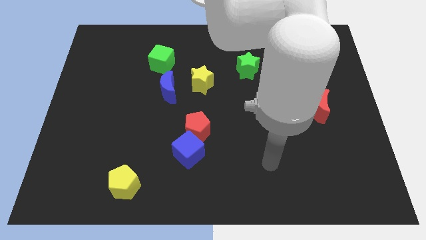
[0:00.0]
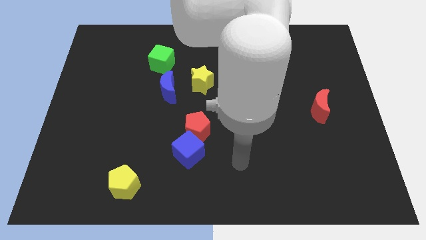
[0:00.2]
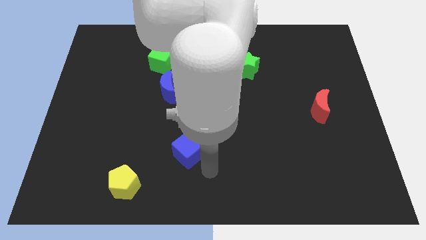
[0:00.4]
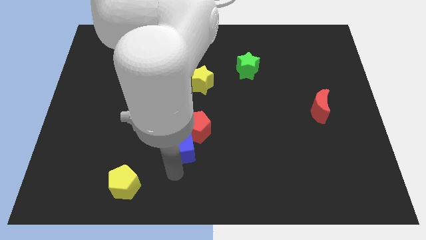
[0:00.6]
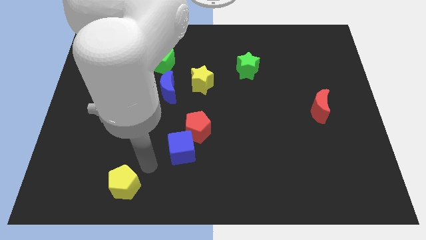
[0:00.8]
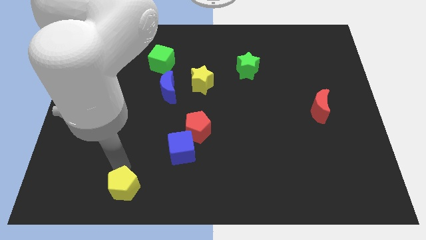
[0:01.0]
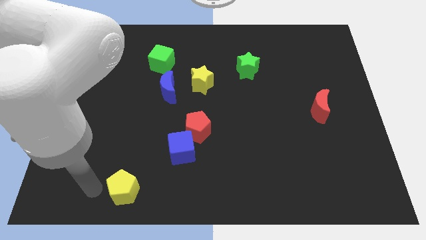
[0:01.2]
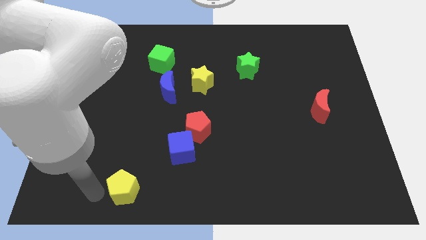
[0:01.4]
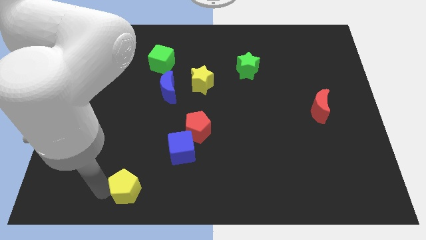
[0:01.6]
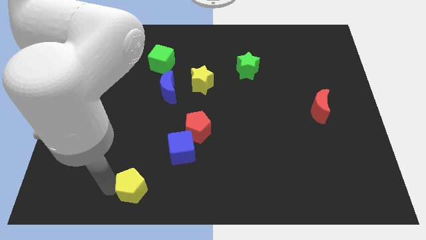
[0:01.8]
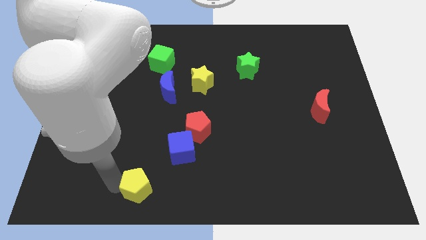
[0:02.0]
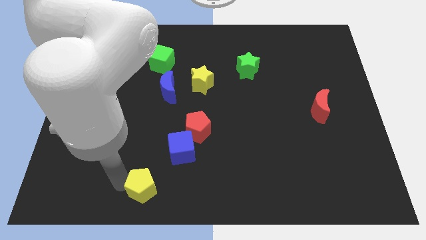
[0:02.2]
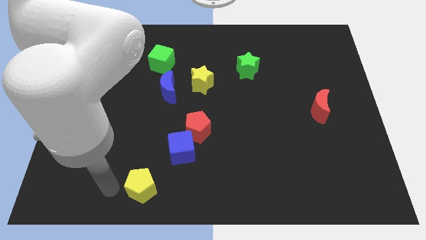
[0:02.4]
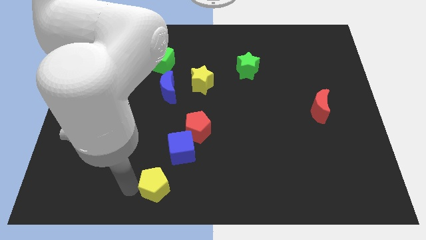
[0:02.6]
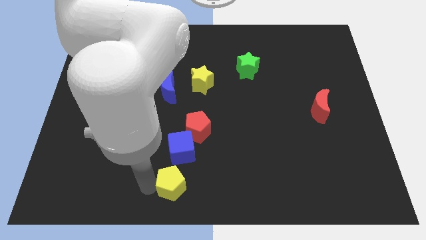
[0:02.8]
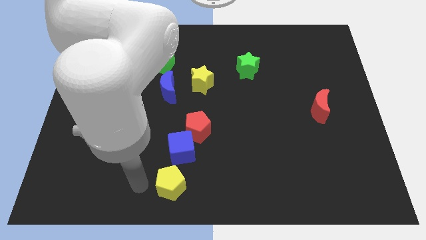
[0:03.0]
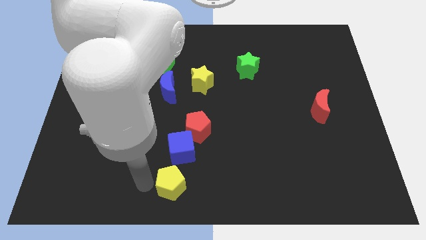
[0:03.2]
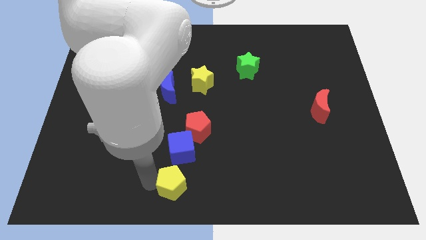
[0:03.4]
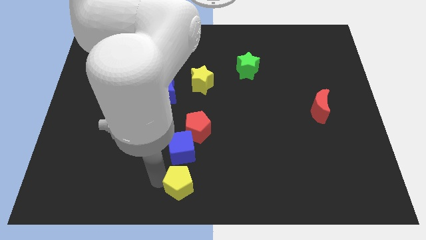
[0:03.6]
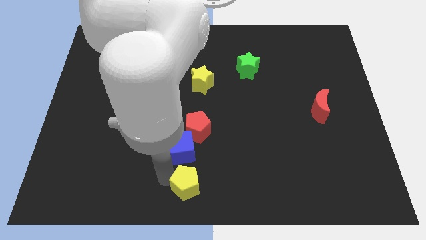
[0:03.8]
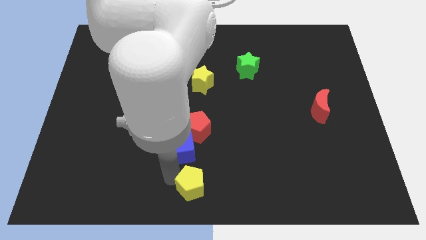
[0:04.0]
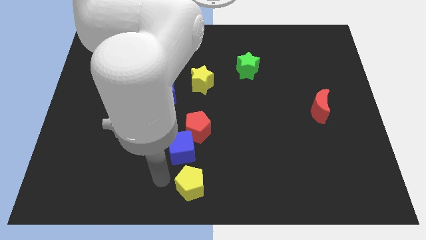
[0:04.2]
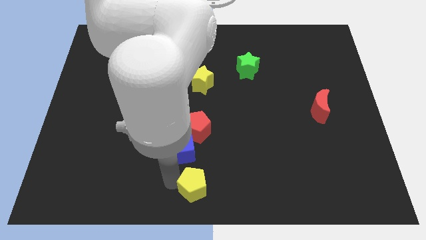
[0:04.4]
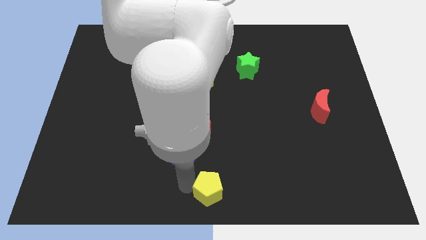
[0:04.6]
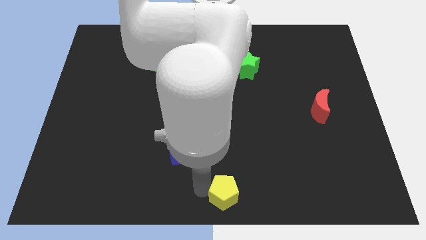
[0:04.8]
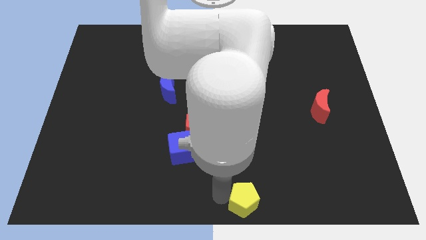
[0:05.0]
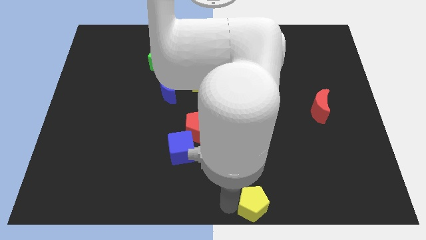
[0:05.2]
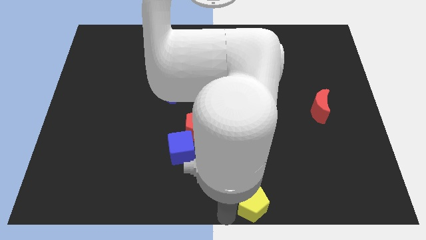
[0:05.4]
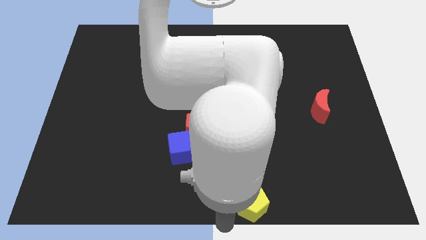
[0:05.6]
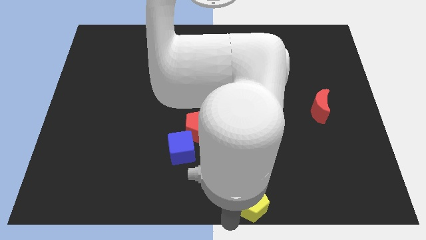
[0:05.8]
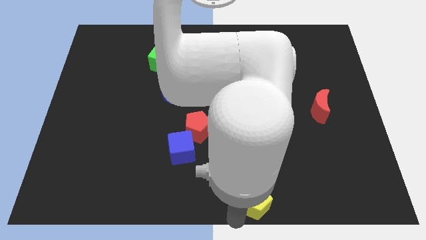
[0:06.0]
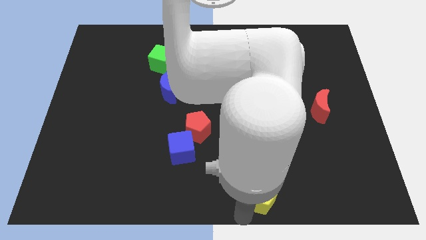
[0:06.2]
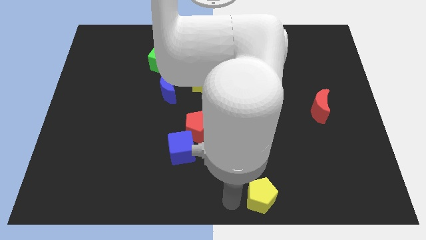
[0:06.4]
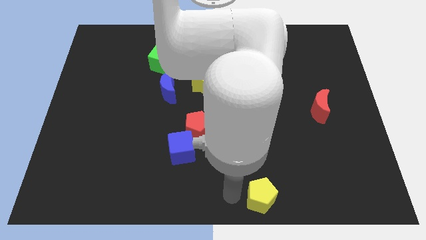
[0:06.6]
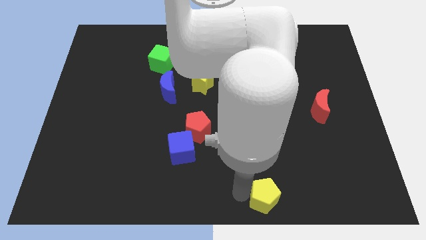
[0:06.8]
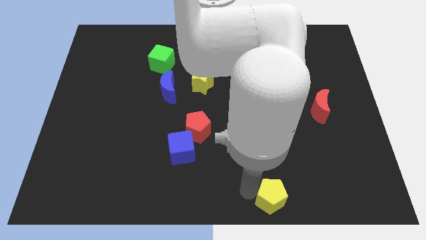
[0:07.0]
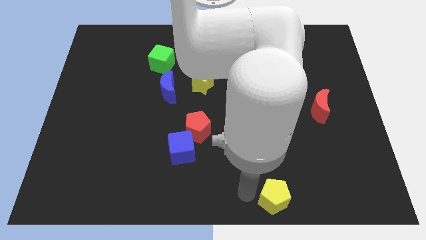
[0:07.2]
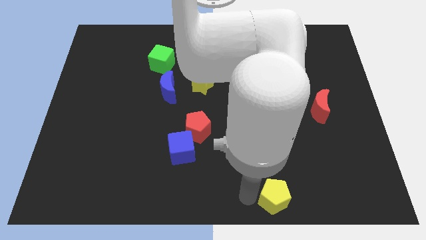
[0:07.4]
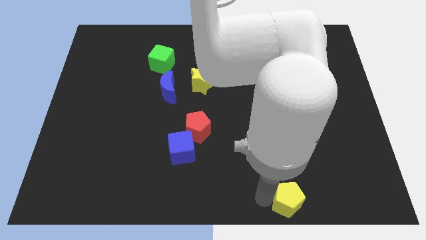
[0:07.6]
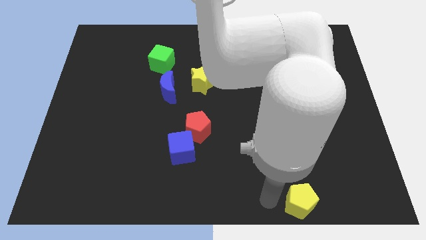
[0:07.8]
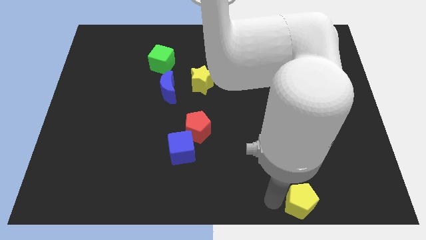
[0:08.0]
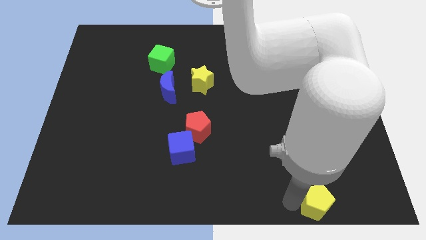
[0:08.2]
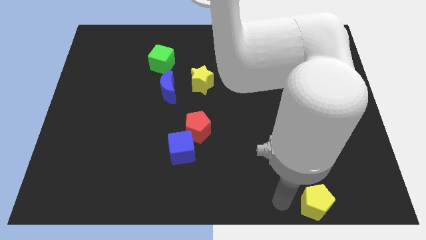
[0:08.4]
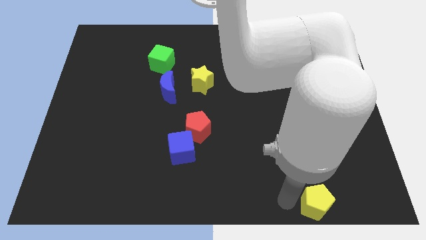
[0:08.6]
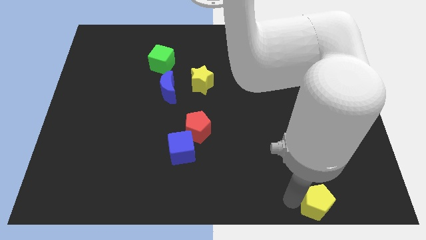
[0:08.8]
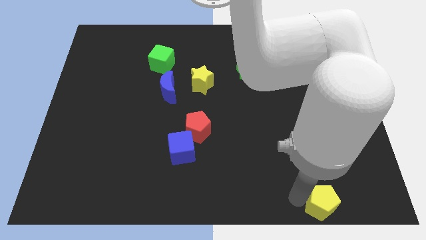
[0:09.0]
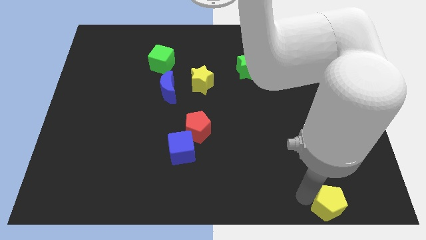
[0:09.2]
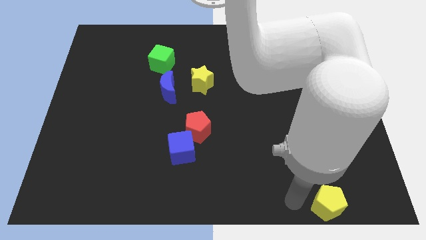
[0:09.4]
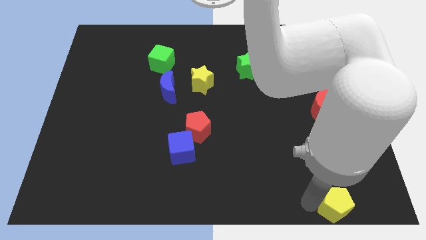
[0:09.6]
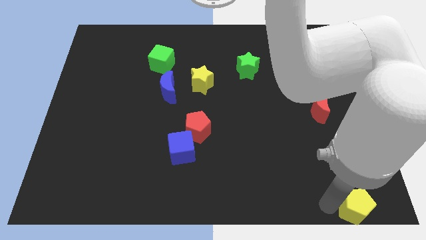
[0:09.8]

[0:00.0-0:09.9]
put the yellow pentagon to the bottom right
